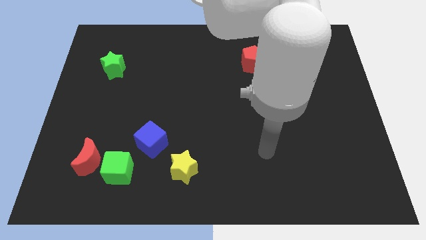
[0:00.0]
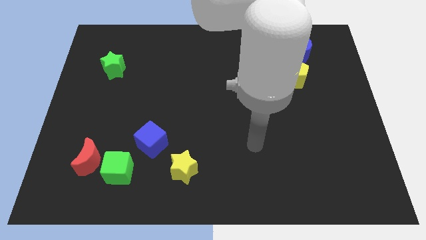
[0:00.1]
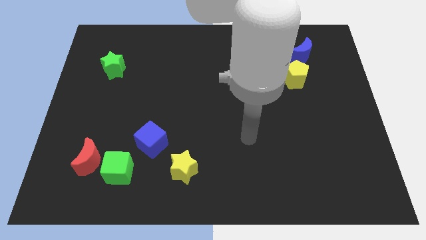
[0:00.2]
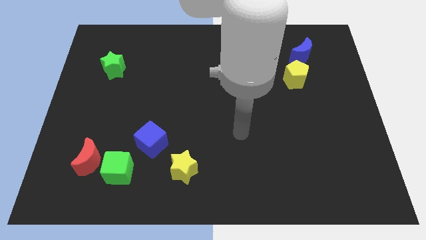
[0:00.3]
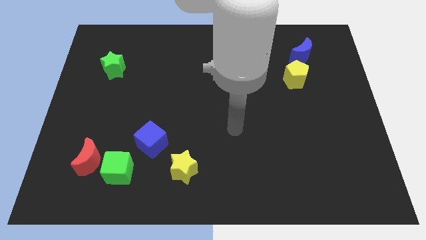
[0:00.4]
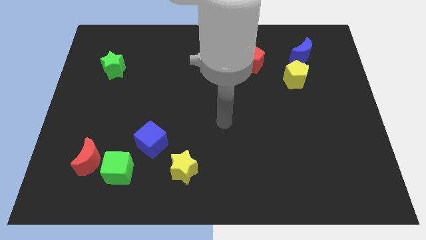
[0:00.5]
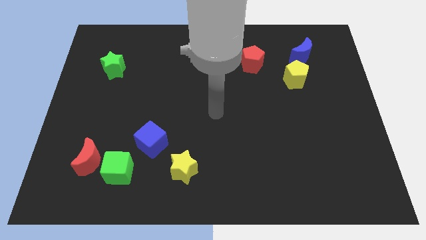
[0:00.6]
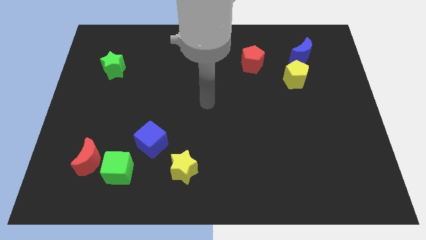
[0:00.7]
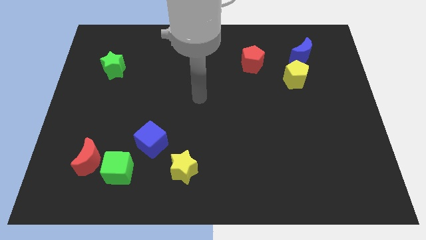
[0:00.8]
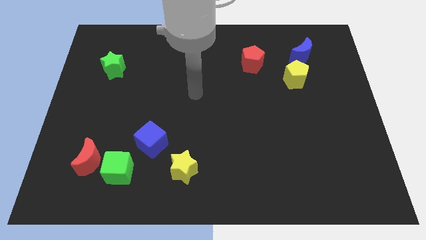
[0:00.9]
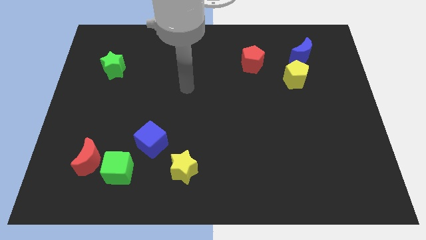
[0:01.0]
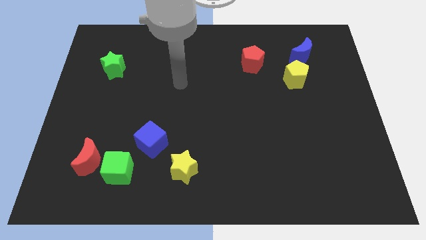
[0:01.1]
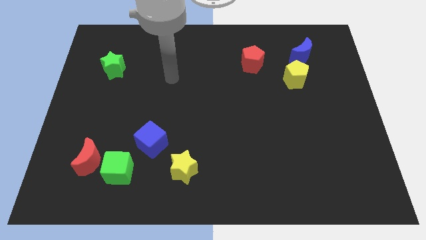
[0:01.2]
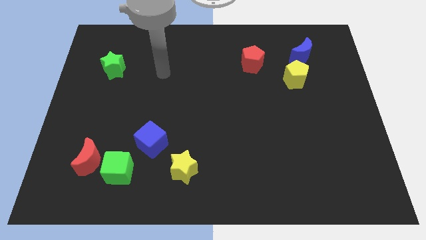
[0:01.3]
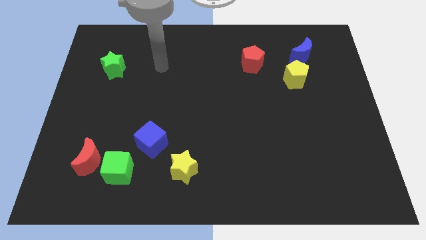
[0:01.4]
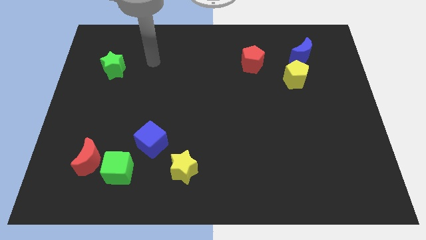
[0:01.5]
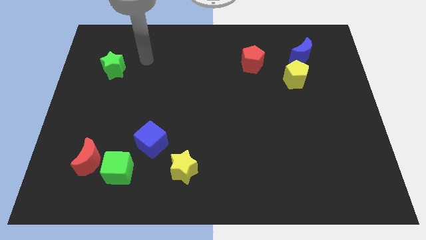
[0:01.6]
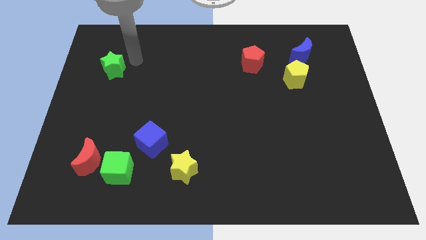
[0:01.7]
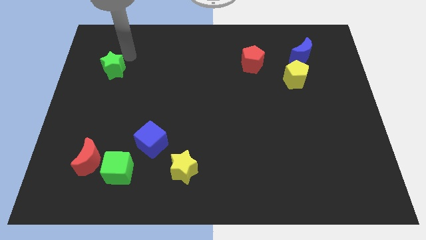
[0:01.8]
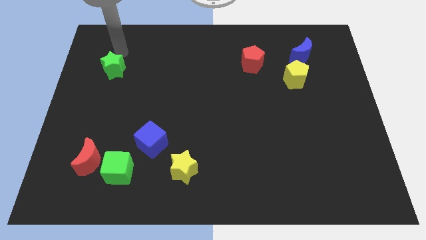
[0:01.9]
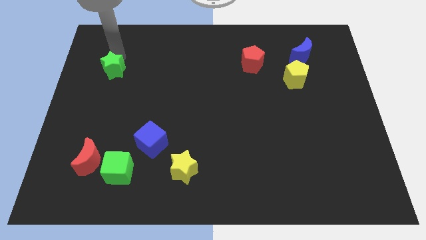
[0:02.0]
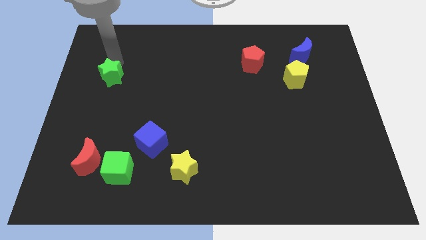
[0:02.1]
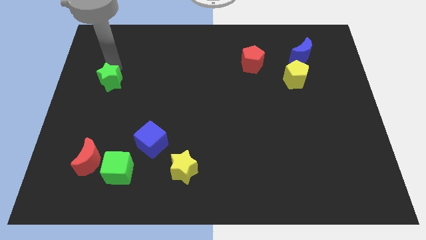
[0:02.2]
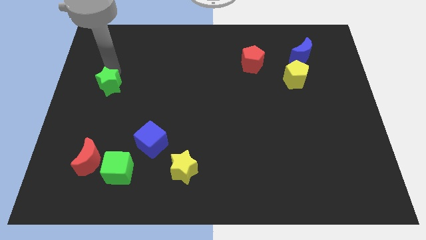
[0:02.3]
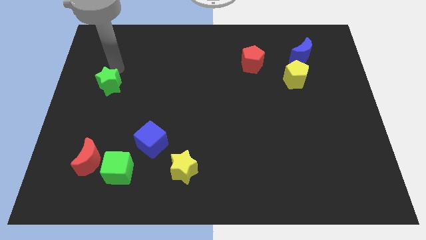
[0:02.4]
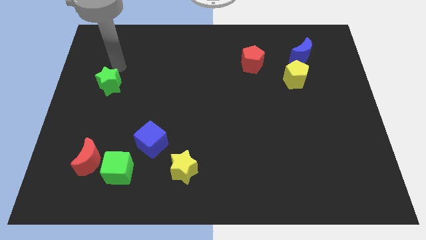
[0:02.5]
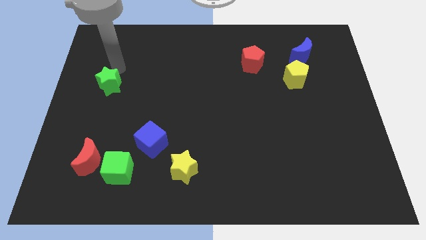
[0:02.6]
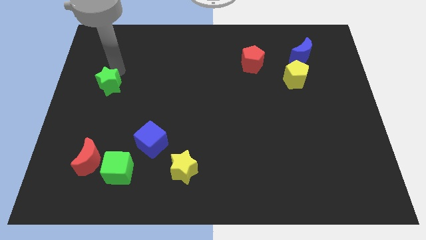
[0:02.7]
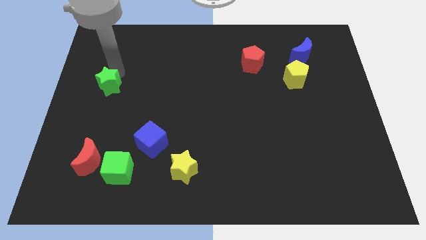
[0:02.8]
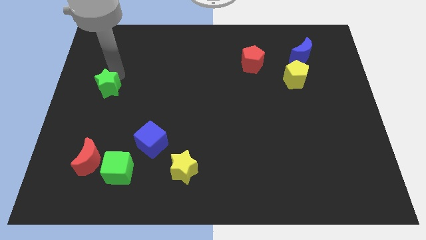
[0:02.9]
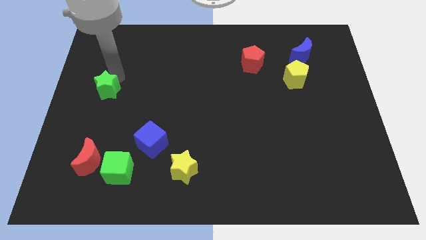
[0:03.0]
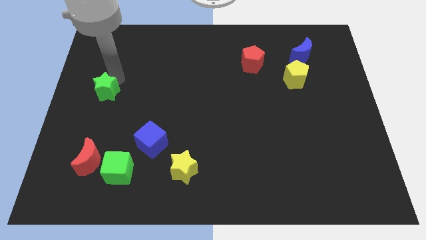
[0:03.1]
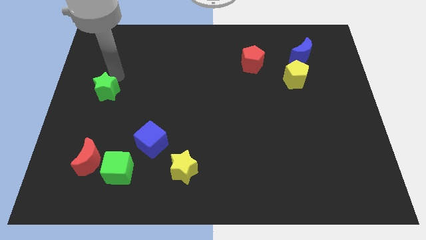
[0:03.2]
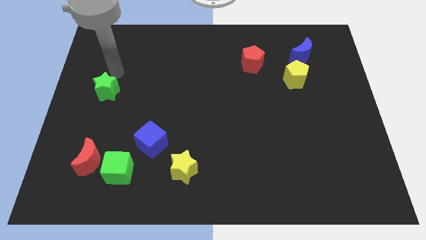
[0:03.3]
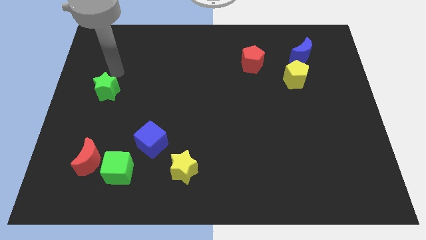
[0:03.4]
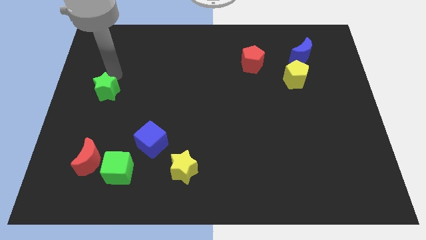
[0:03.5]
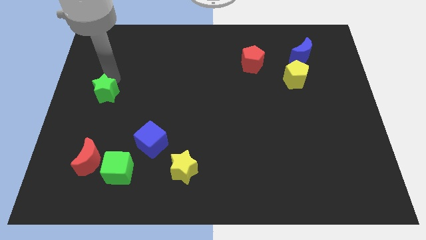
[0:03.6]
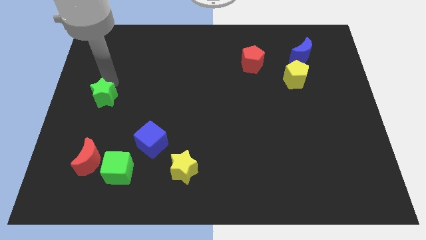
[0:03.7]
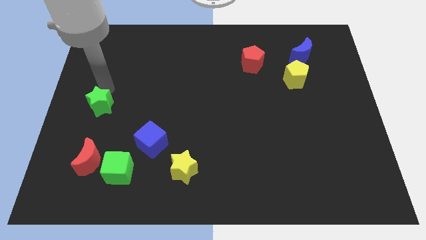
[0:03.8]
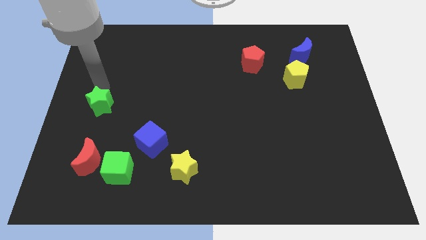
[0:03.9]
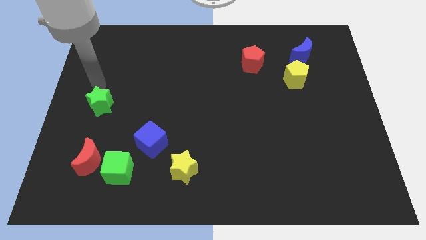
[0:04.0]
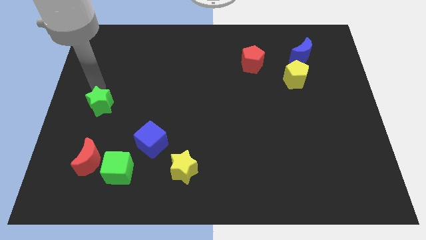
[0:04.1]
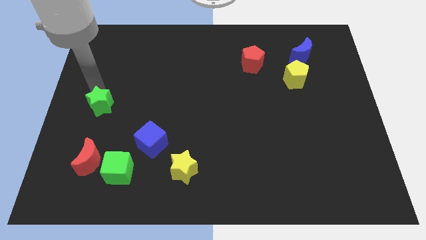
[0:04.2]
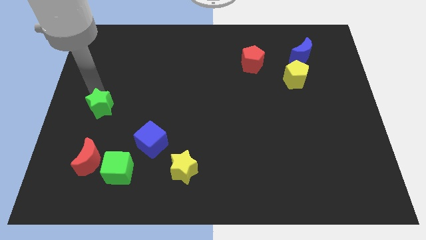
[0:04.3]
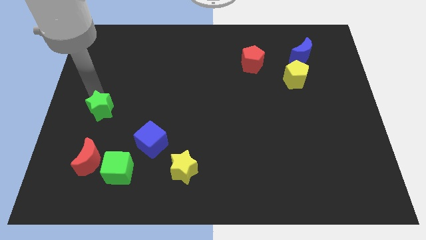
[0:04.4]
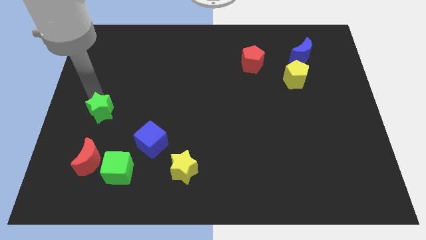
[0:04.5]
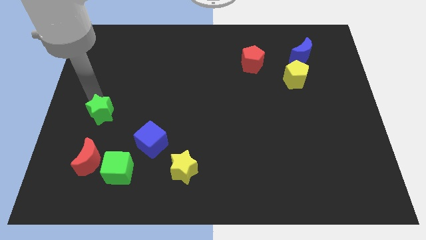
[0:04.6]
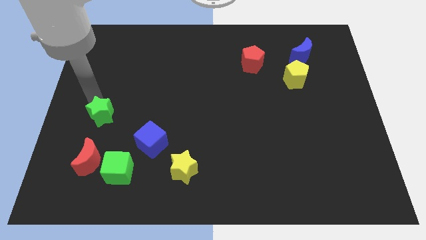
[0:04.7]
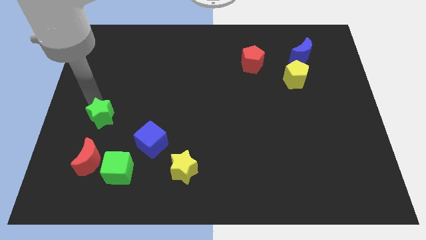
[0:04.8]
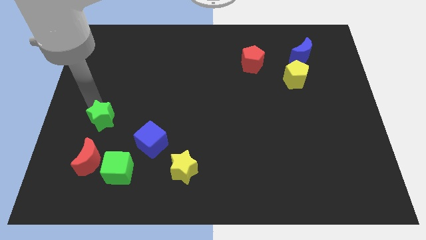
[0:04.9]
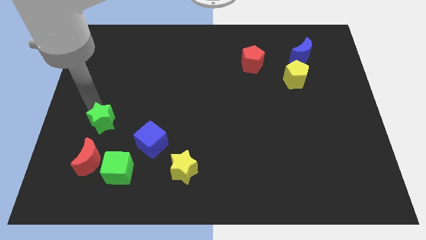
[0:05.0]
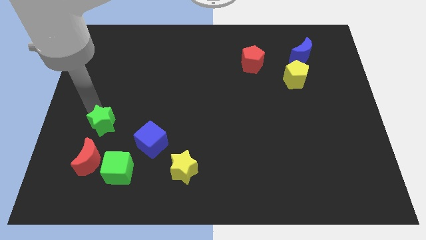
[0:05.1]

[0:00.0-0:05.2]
push the green star left of the blue cube

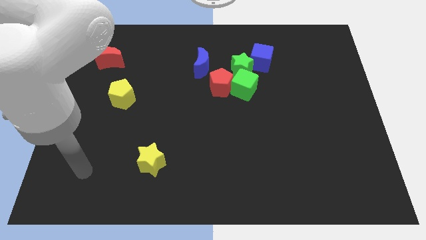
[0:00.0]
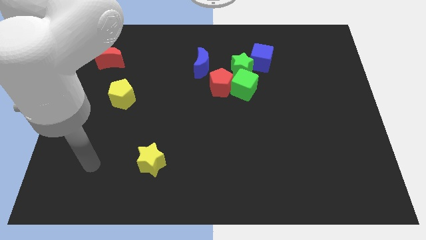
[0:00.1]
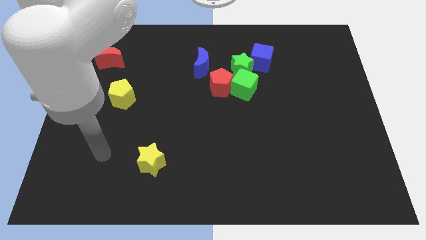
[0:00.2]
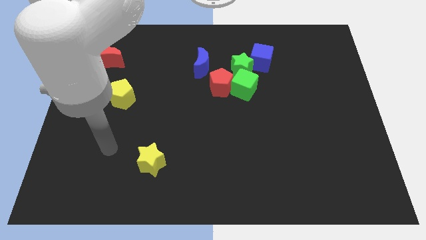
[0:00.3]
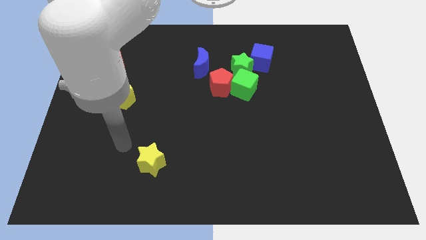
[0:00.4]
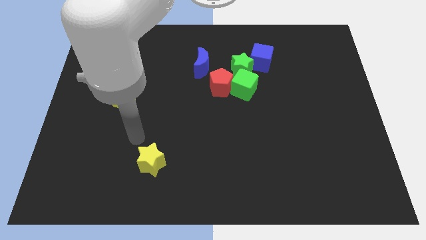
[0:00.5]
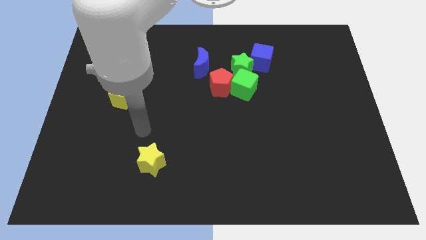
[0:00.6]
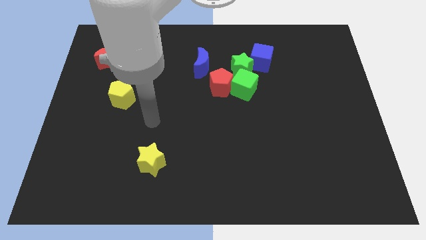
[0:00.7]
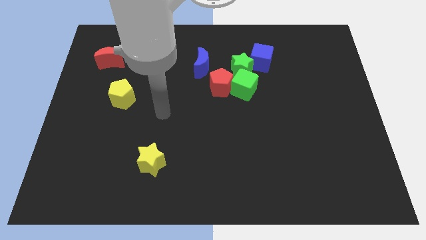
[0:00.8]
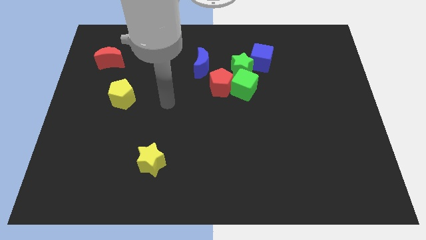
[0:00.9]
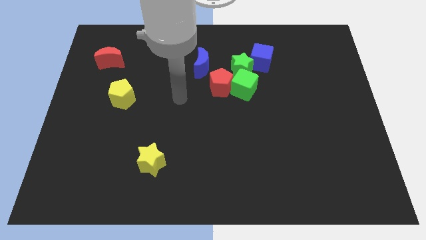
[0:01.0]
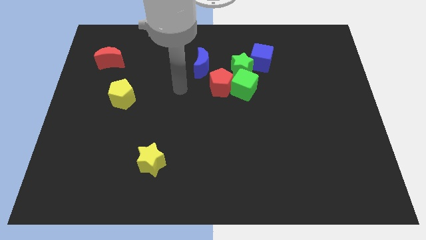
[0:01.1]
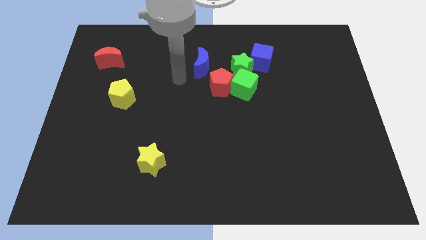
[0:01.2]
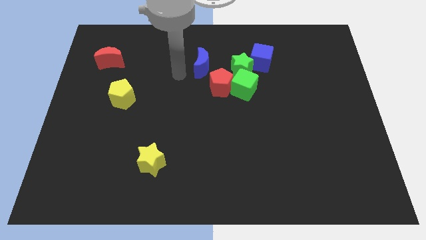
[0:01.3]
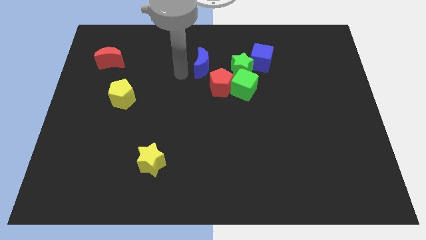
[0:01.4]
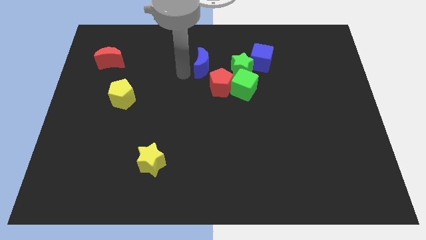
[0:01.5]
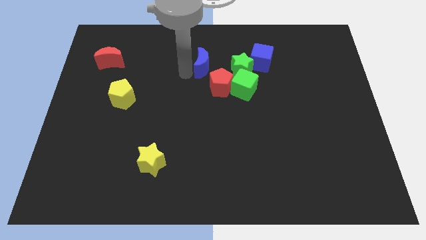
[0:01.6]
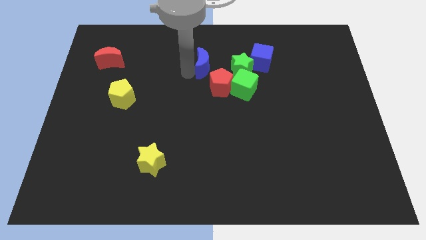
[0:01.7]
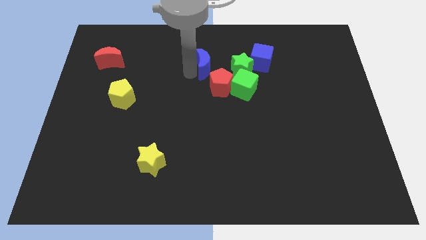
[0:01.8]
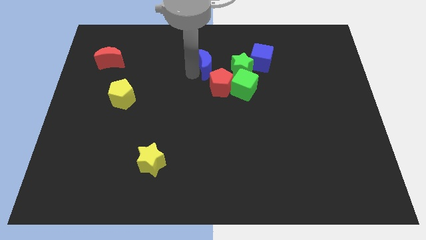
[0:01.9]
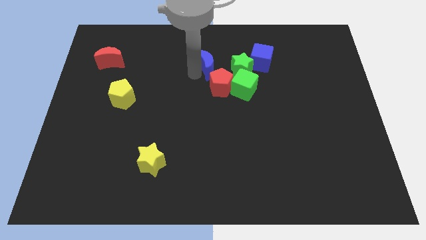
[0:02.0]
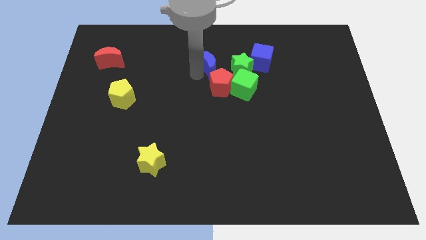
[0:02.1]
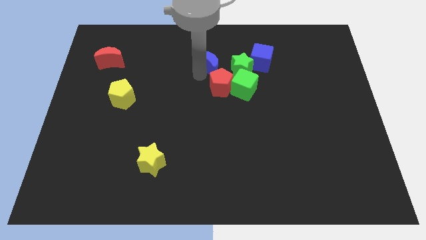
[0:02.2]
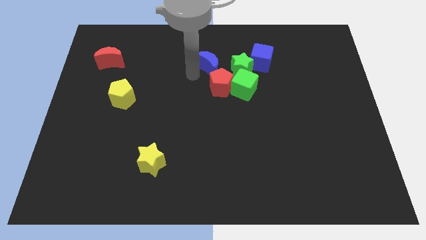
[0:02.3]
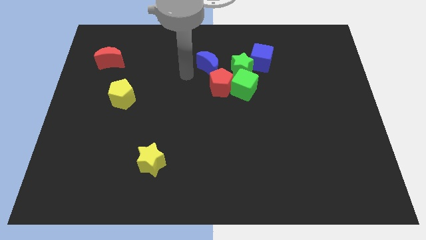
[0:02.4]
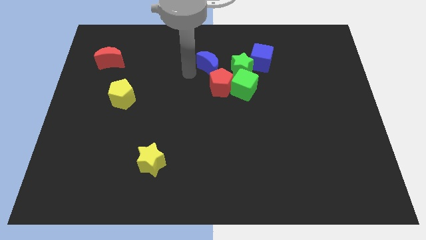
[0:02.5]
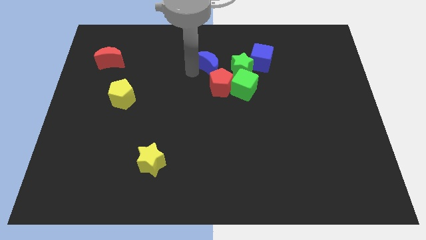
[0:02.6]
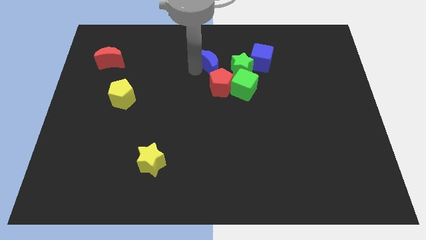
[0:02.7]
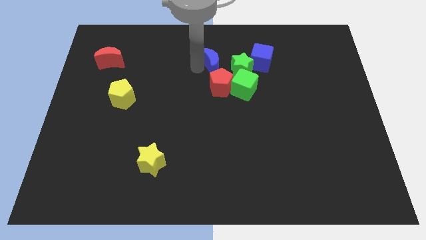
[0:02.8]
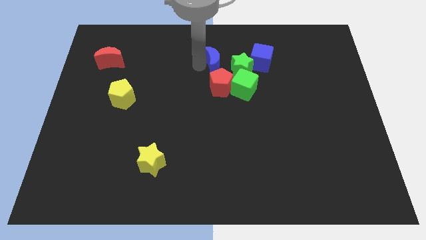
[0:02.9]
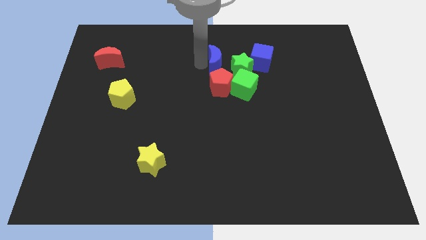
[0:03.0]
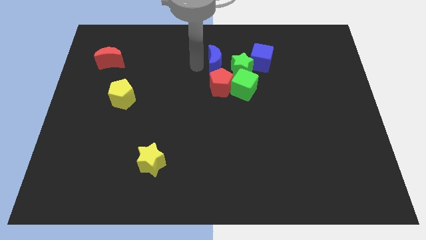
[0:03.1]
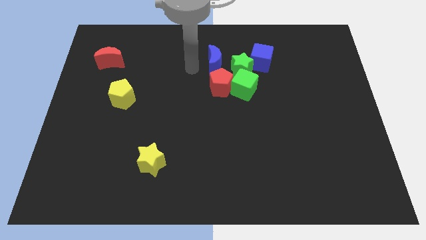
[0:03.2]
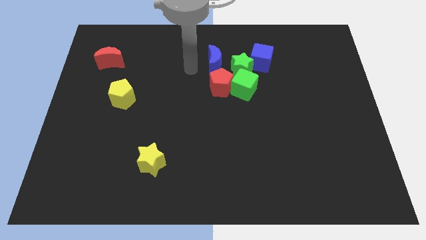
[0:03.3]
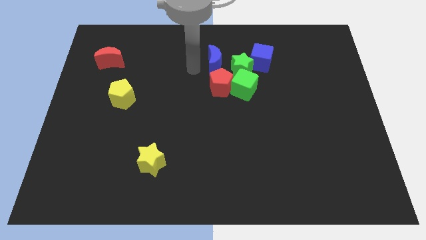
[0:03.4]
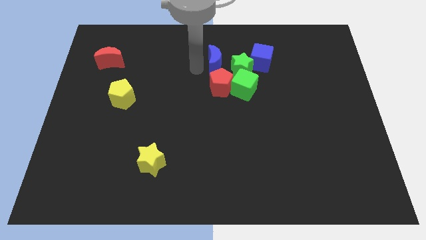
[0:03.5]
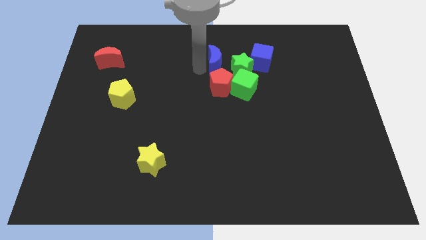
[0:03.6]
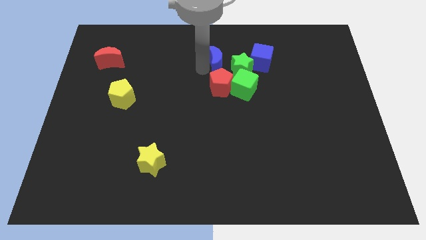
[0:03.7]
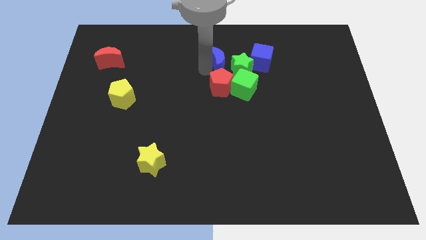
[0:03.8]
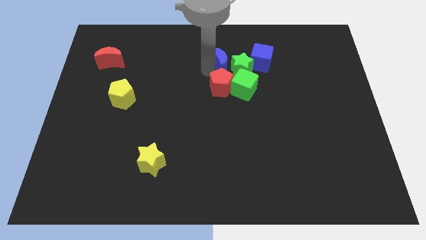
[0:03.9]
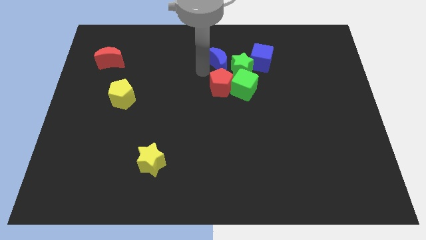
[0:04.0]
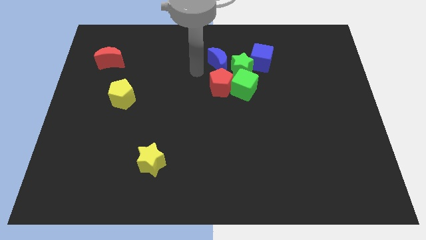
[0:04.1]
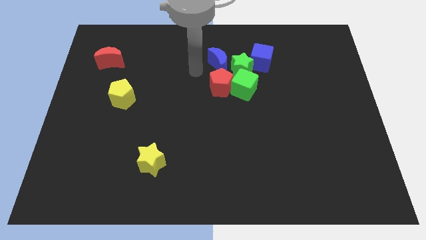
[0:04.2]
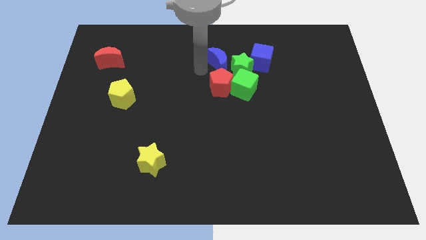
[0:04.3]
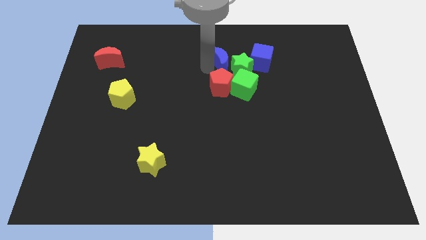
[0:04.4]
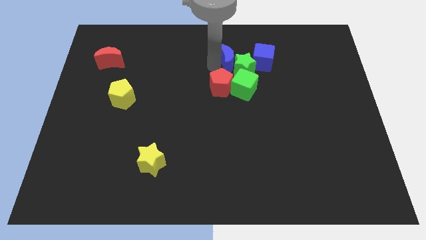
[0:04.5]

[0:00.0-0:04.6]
move the blue moon to the top of the green cube
